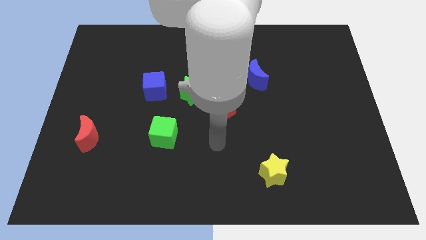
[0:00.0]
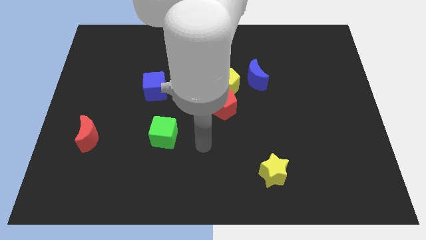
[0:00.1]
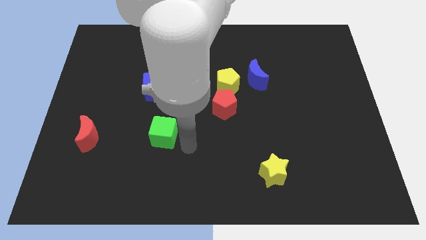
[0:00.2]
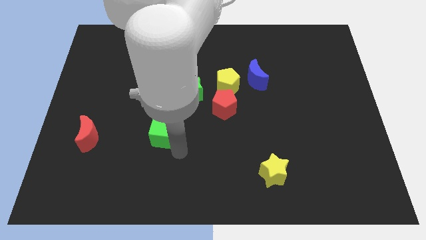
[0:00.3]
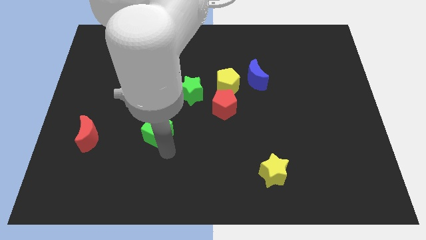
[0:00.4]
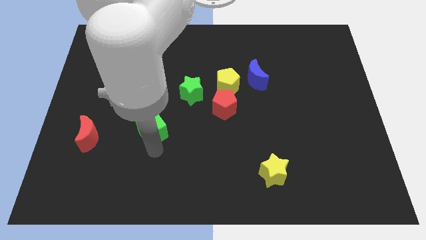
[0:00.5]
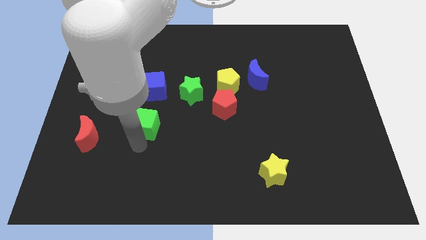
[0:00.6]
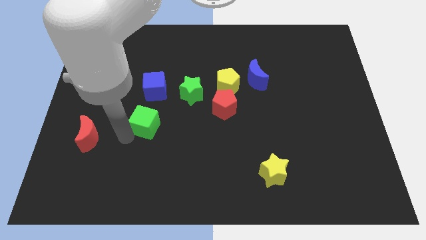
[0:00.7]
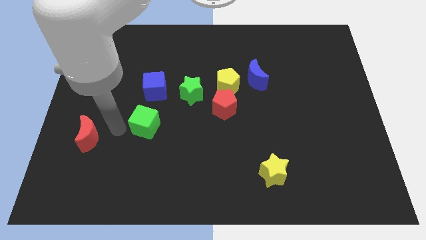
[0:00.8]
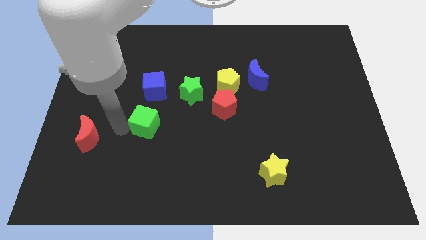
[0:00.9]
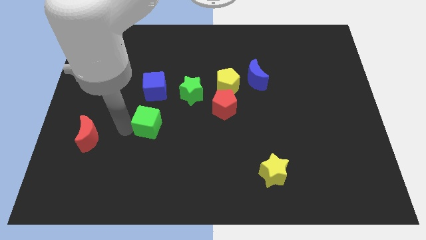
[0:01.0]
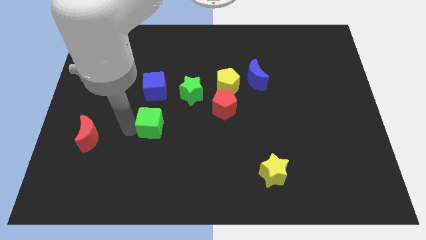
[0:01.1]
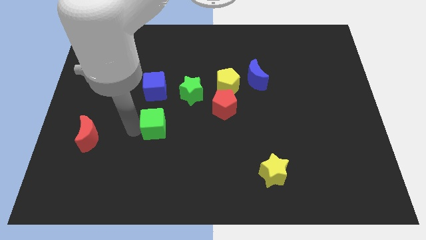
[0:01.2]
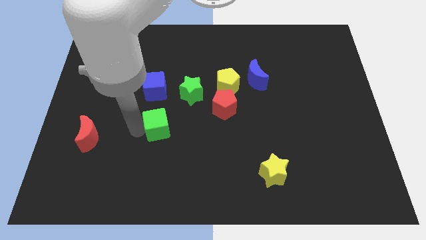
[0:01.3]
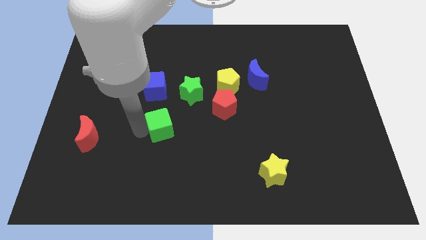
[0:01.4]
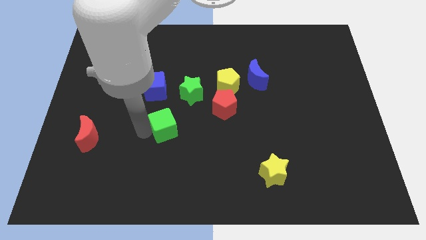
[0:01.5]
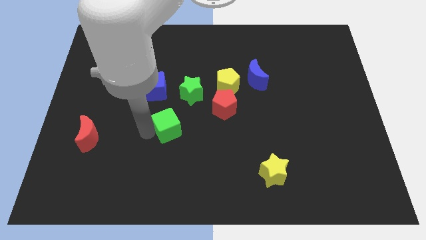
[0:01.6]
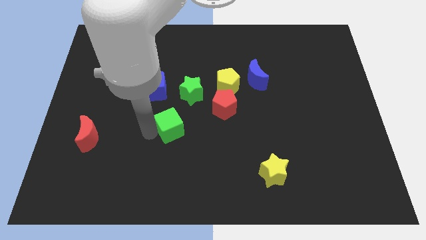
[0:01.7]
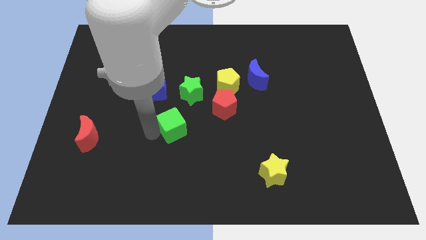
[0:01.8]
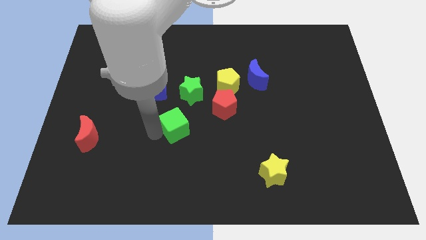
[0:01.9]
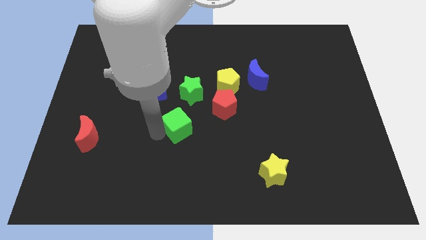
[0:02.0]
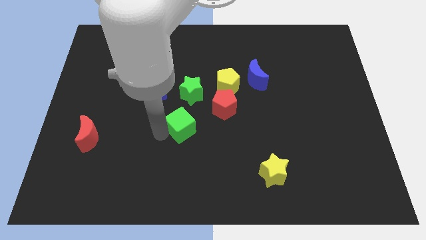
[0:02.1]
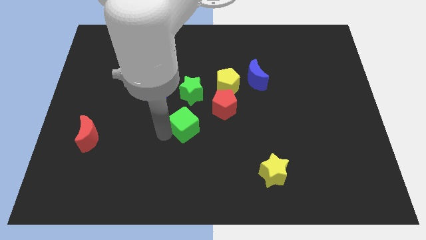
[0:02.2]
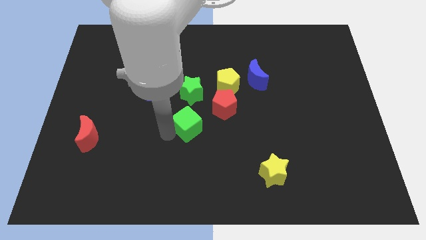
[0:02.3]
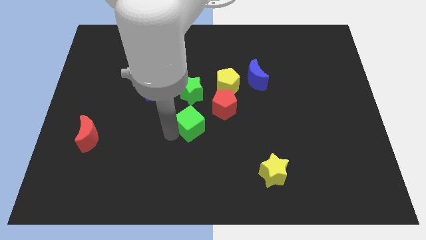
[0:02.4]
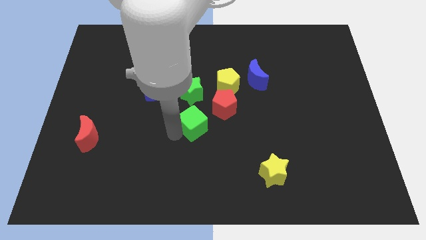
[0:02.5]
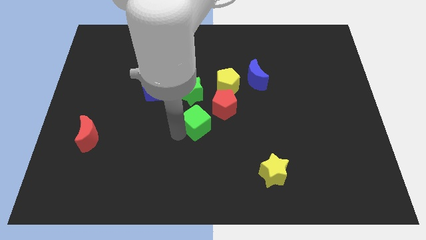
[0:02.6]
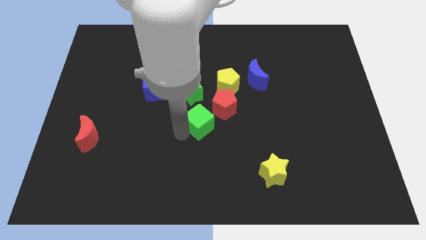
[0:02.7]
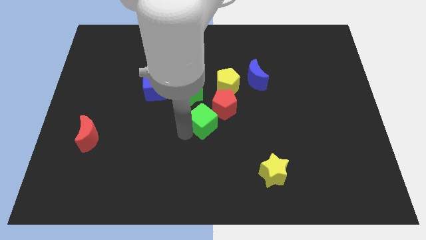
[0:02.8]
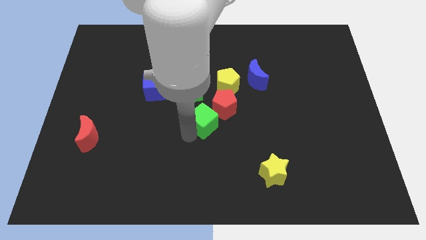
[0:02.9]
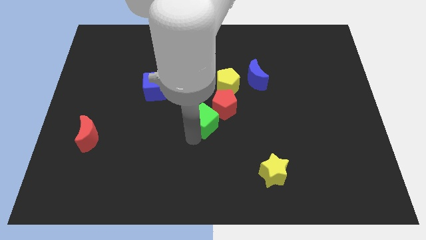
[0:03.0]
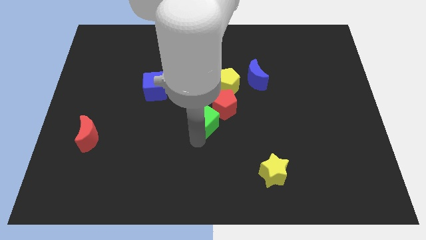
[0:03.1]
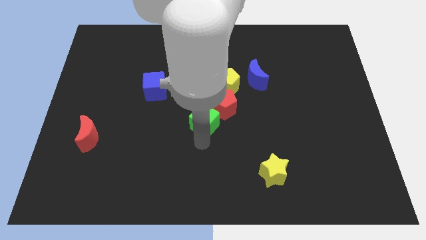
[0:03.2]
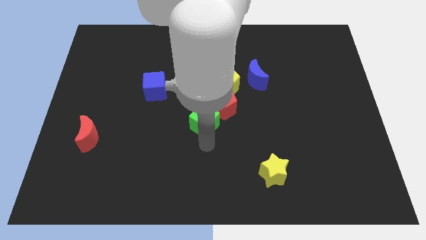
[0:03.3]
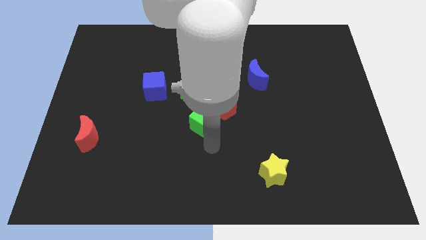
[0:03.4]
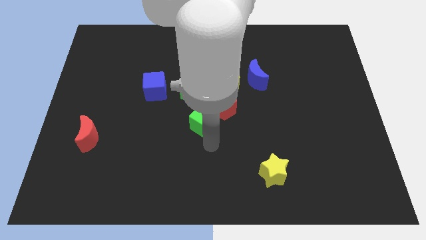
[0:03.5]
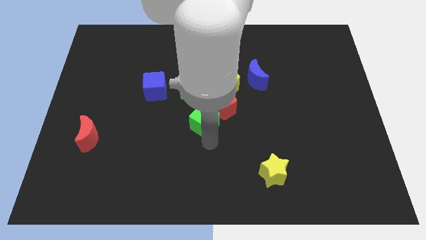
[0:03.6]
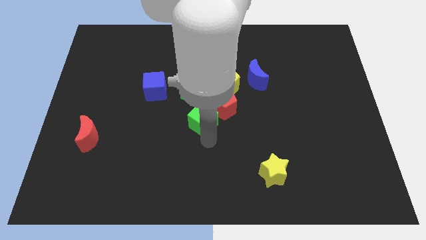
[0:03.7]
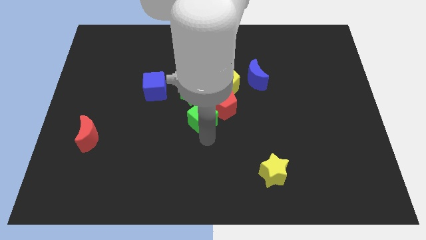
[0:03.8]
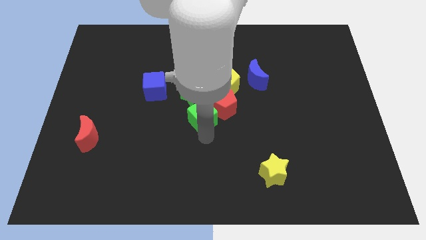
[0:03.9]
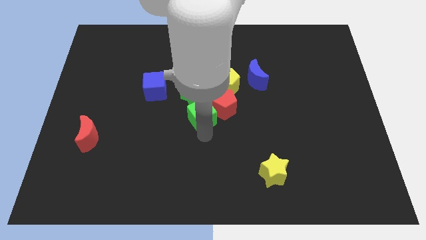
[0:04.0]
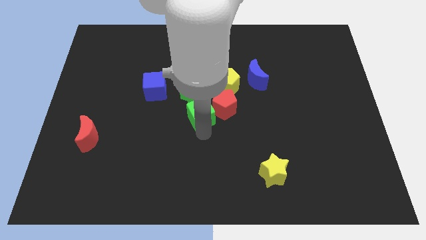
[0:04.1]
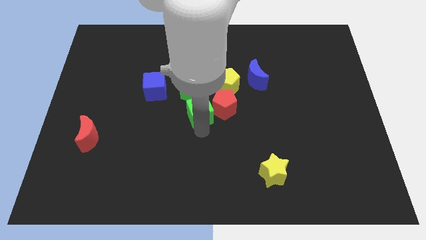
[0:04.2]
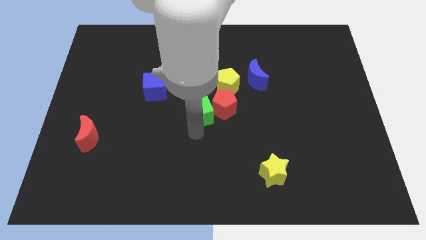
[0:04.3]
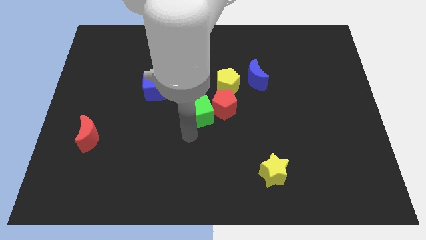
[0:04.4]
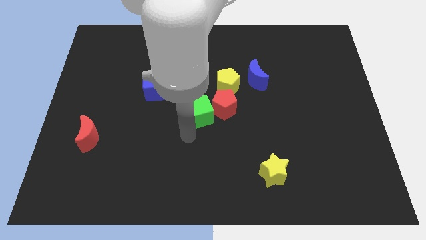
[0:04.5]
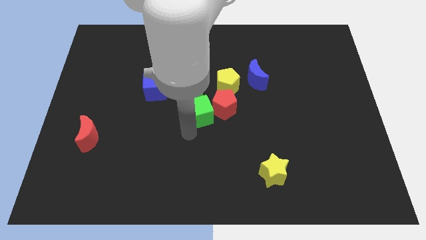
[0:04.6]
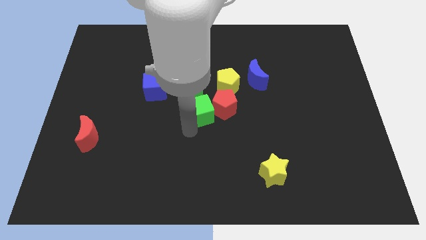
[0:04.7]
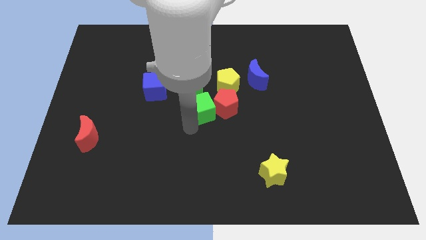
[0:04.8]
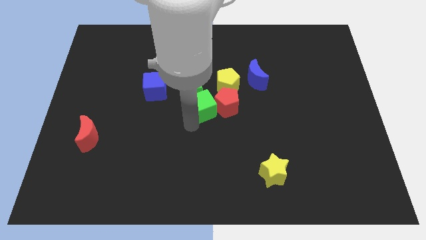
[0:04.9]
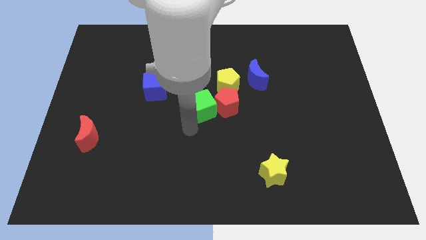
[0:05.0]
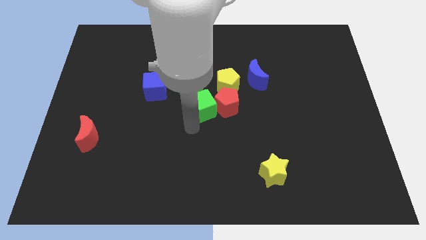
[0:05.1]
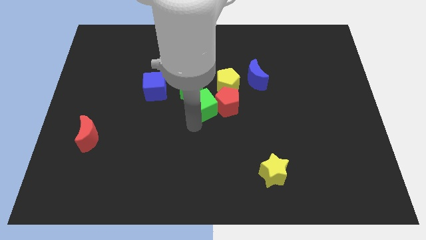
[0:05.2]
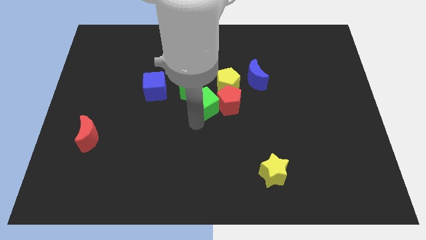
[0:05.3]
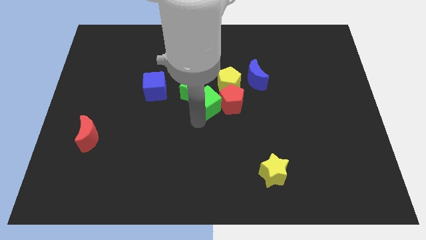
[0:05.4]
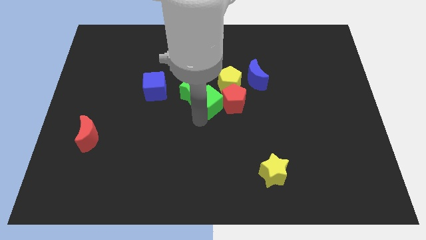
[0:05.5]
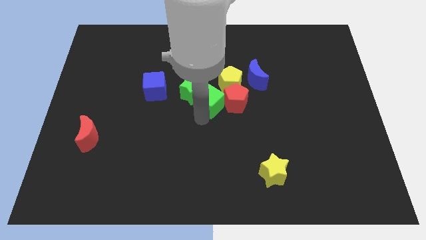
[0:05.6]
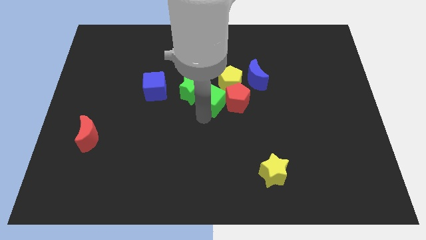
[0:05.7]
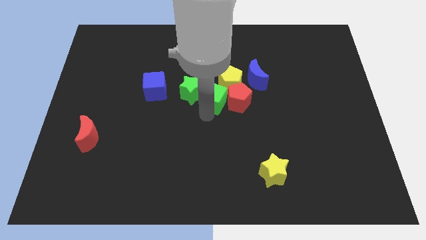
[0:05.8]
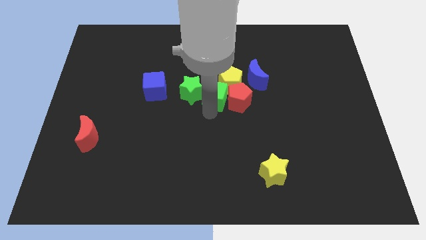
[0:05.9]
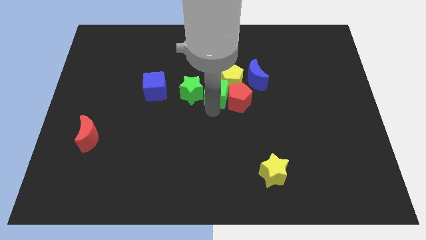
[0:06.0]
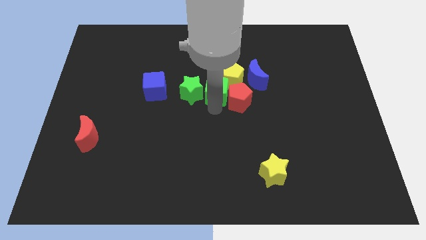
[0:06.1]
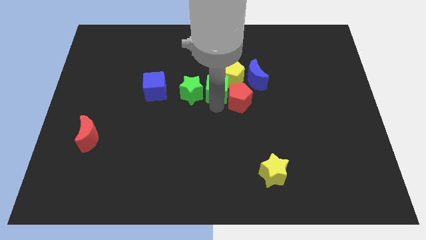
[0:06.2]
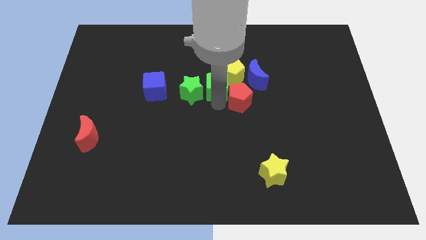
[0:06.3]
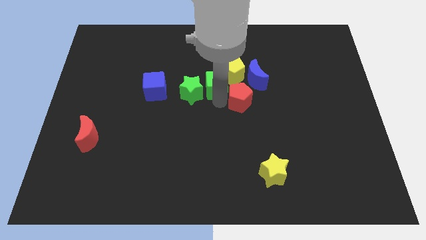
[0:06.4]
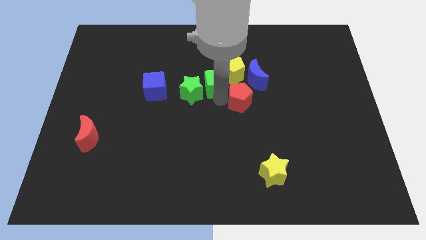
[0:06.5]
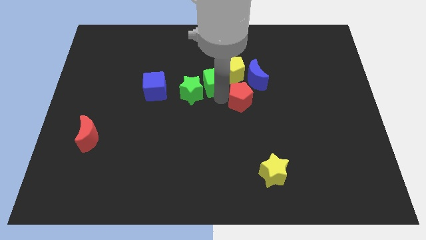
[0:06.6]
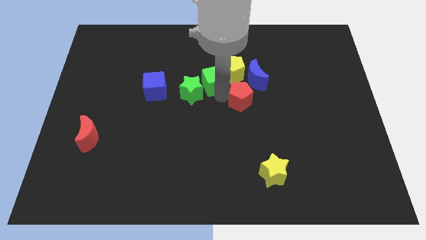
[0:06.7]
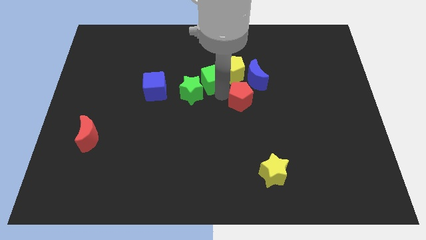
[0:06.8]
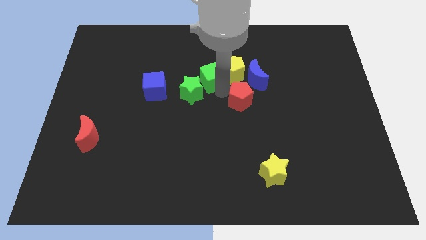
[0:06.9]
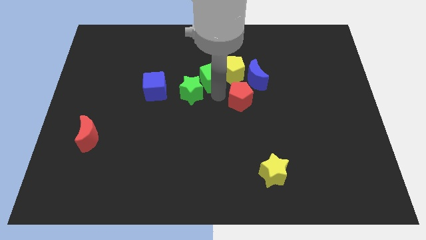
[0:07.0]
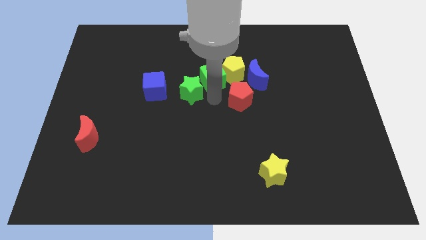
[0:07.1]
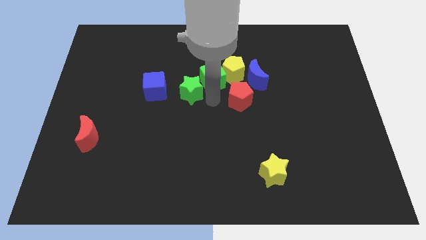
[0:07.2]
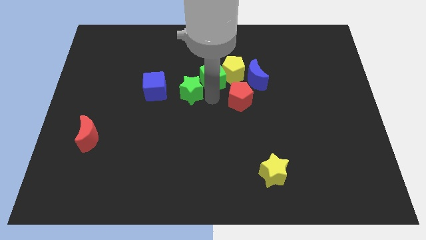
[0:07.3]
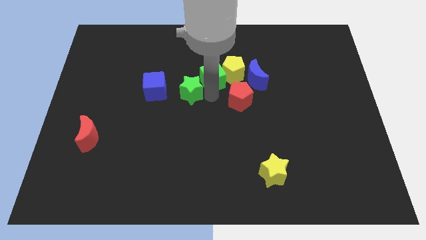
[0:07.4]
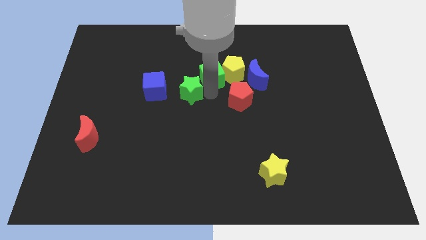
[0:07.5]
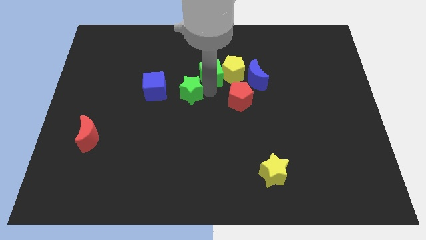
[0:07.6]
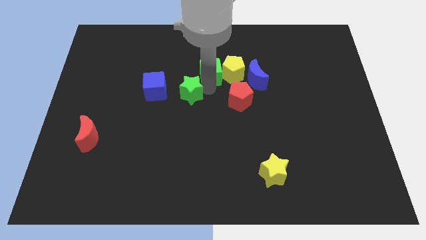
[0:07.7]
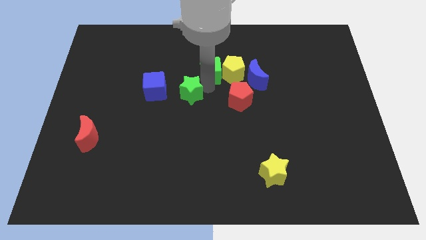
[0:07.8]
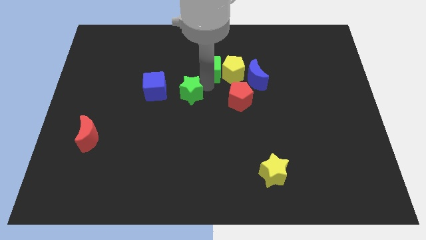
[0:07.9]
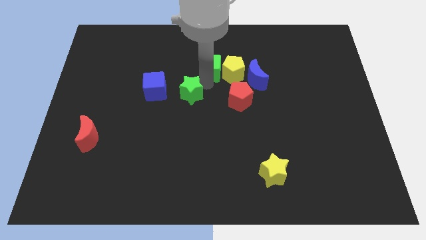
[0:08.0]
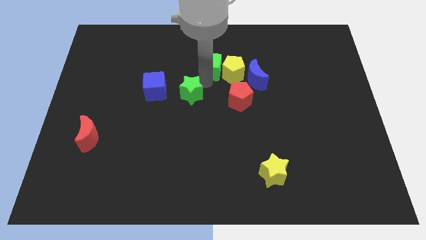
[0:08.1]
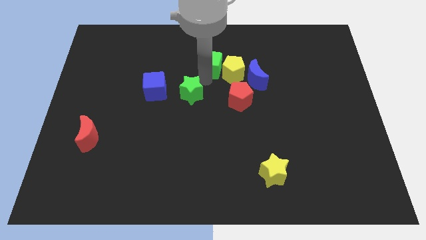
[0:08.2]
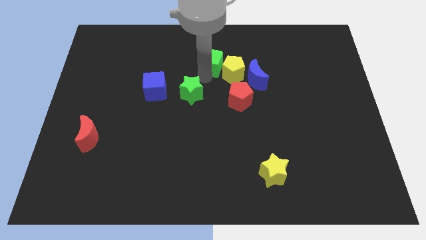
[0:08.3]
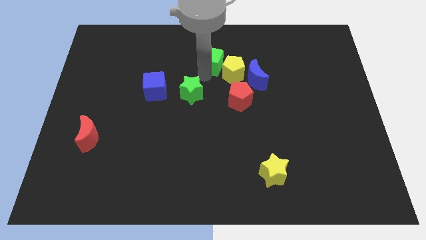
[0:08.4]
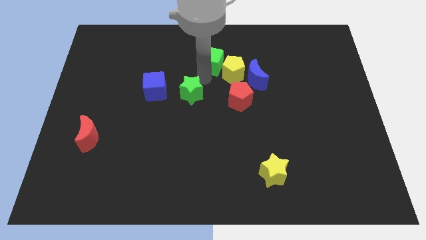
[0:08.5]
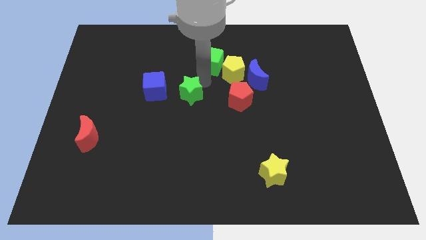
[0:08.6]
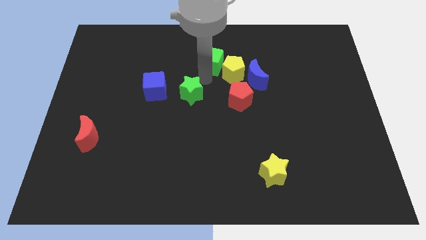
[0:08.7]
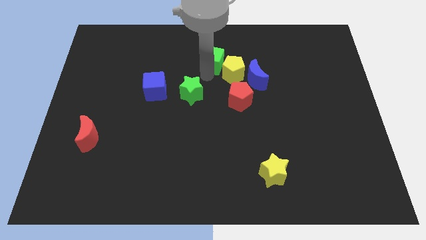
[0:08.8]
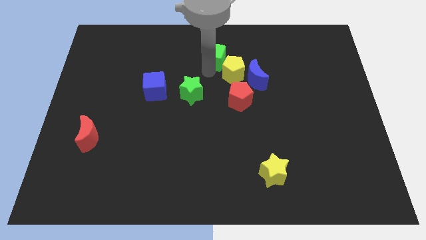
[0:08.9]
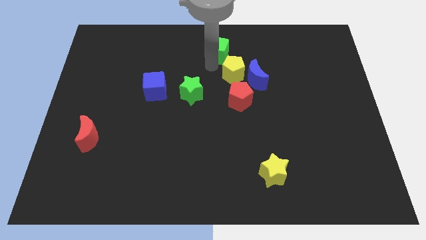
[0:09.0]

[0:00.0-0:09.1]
put the green cube to the top
